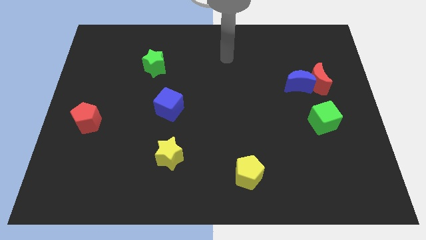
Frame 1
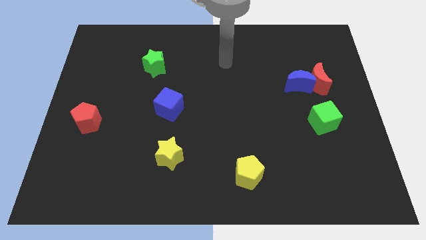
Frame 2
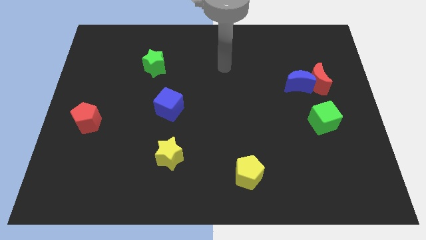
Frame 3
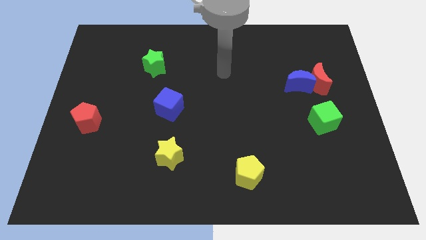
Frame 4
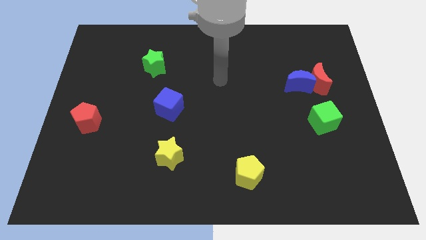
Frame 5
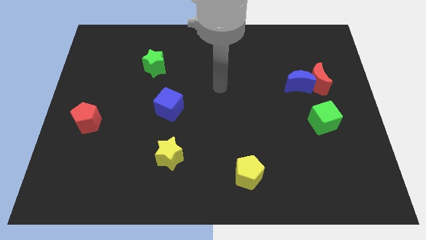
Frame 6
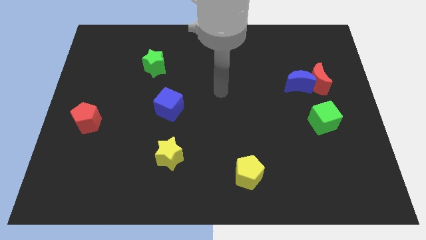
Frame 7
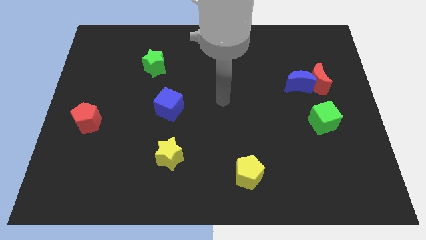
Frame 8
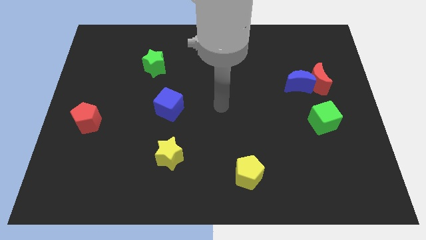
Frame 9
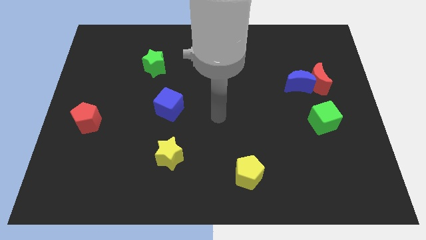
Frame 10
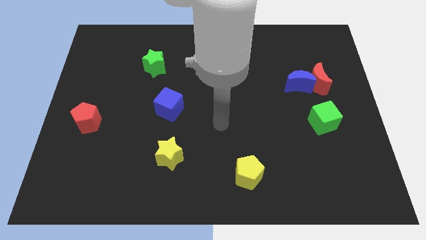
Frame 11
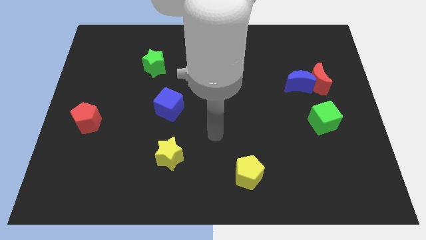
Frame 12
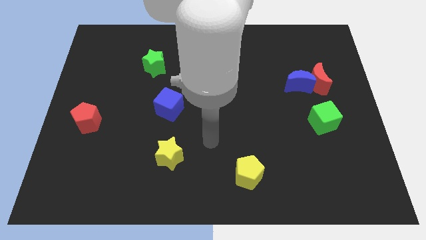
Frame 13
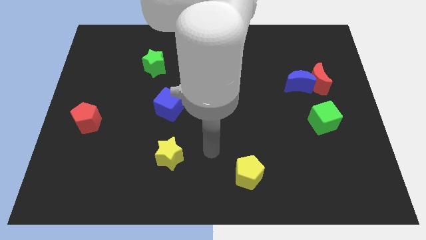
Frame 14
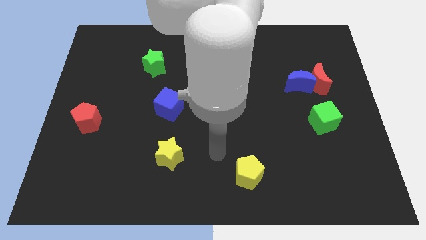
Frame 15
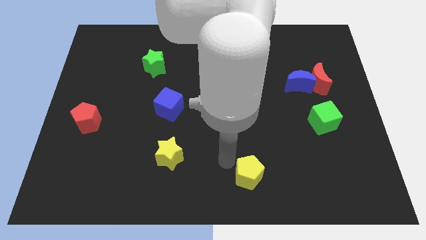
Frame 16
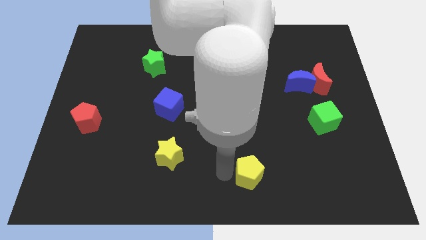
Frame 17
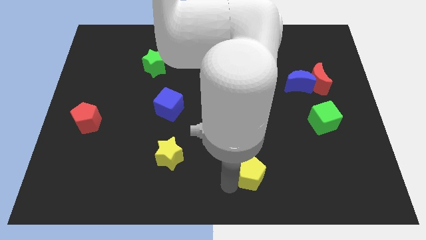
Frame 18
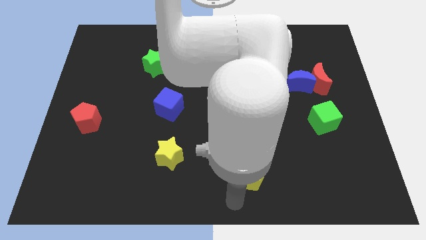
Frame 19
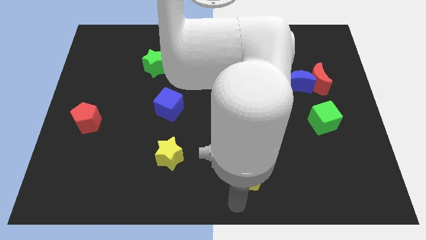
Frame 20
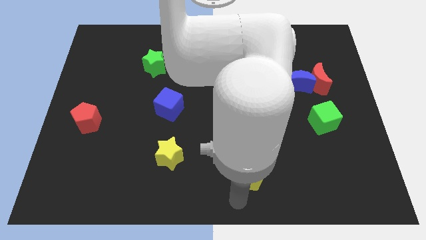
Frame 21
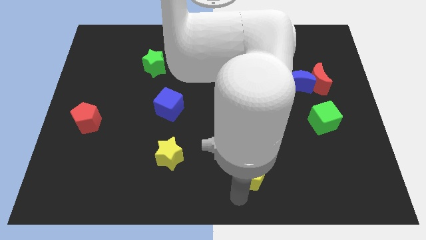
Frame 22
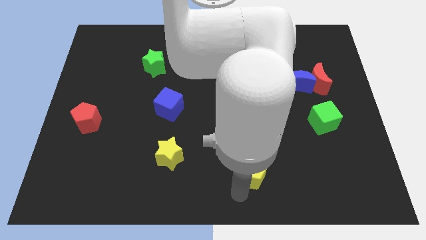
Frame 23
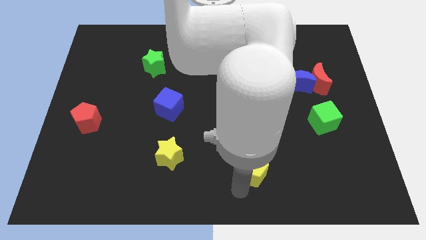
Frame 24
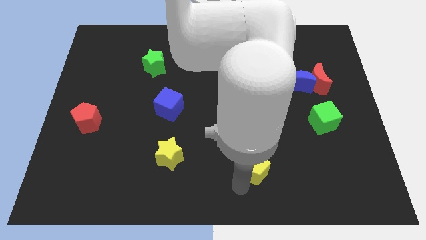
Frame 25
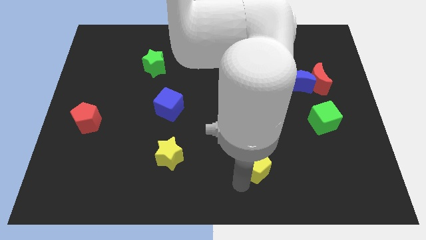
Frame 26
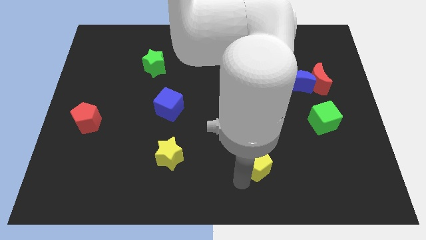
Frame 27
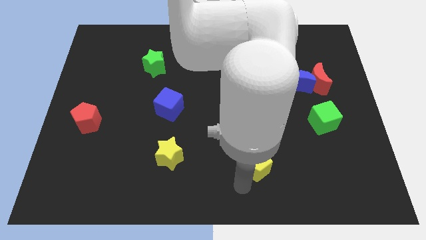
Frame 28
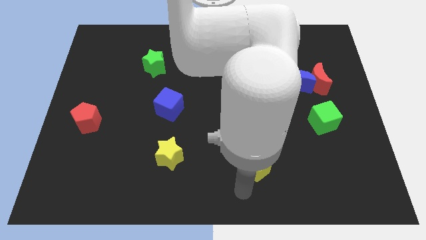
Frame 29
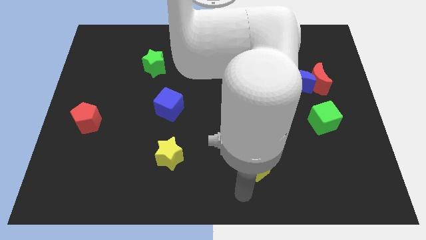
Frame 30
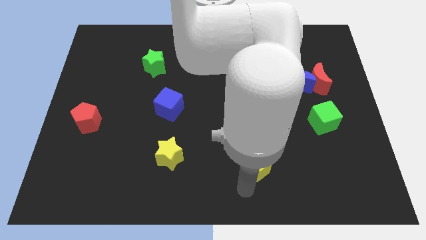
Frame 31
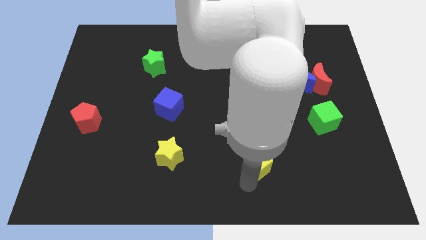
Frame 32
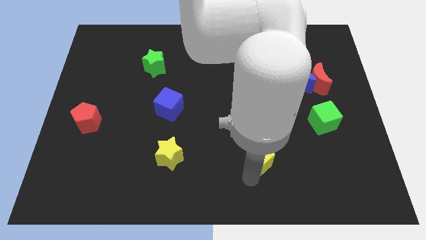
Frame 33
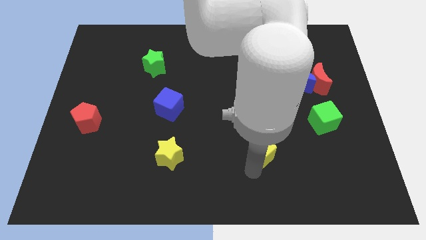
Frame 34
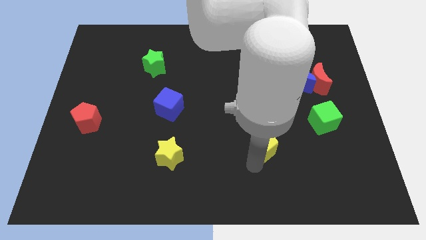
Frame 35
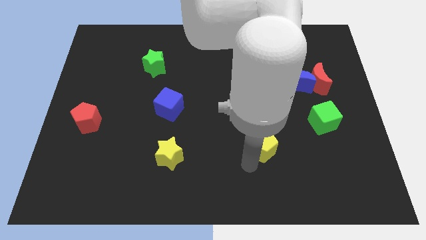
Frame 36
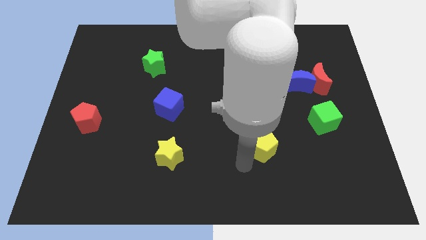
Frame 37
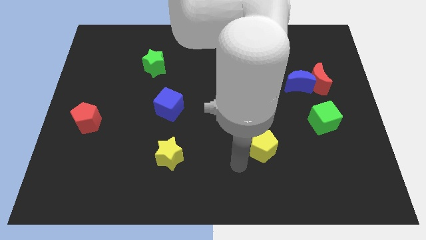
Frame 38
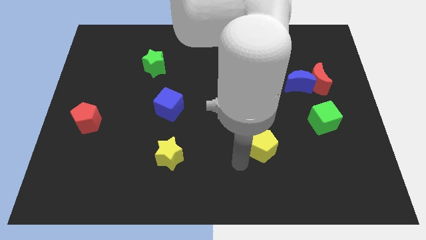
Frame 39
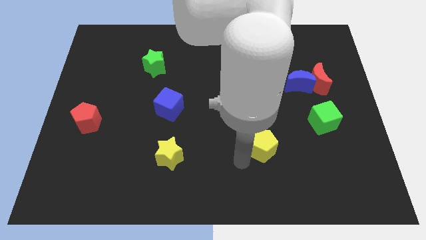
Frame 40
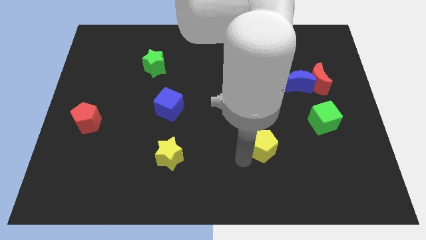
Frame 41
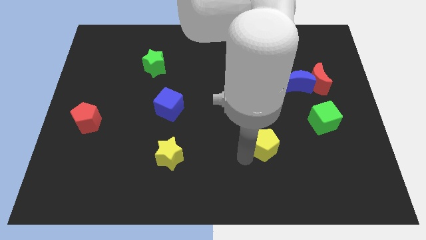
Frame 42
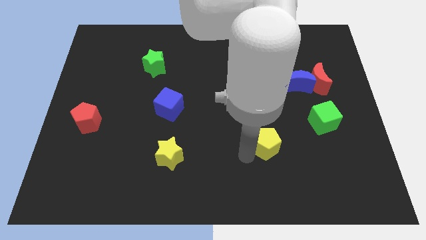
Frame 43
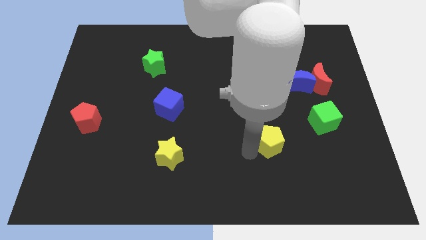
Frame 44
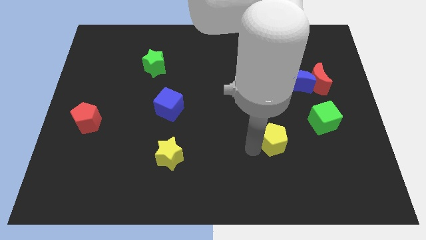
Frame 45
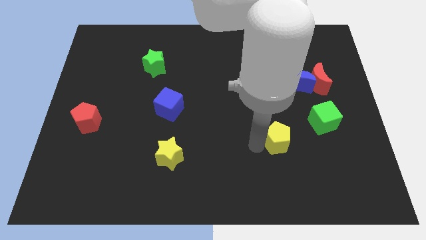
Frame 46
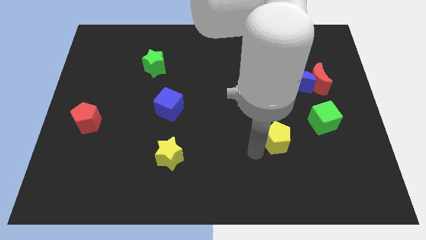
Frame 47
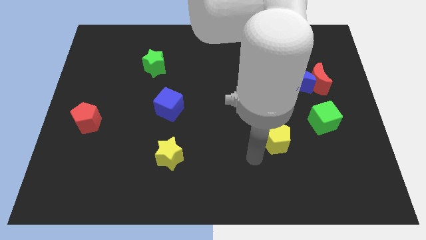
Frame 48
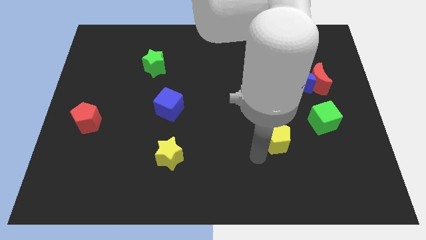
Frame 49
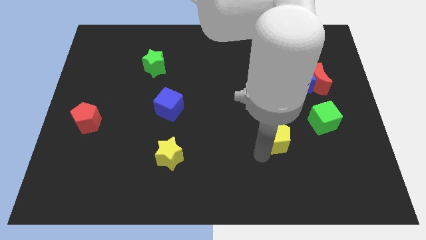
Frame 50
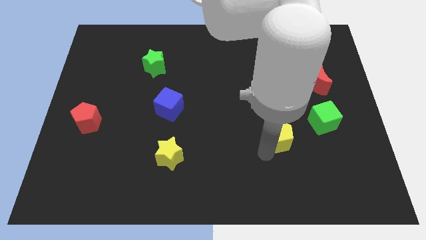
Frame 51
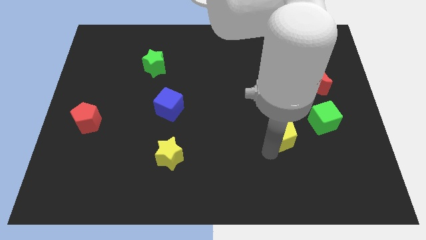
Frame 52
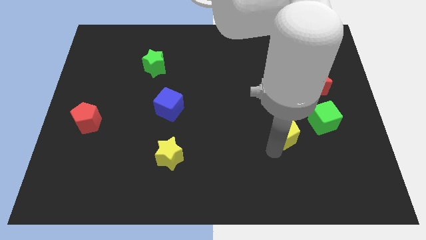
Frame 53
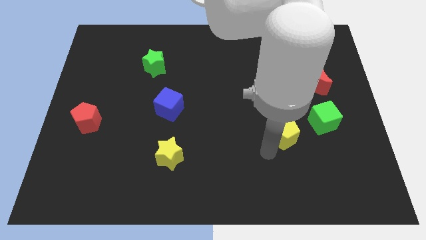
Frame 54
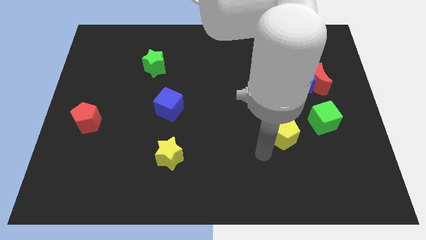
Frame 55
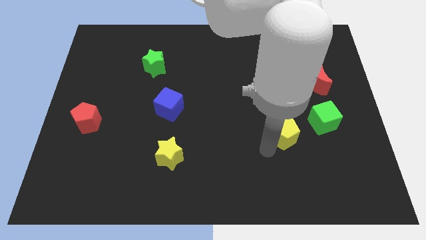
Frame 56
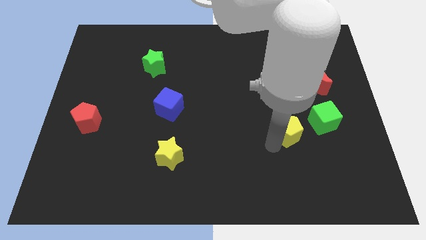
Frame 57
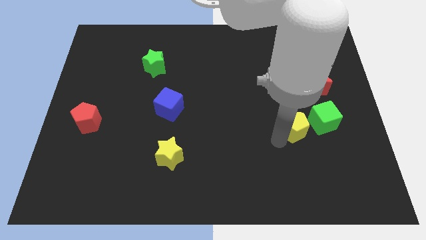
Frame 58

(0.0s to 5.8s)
slide the yellow pentagon to the bottom side of the blue moon
